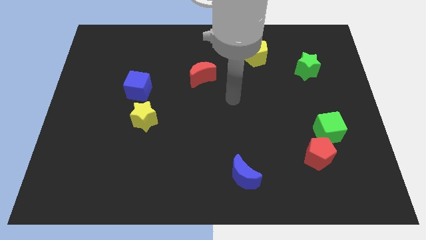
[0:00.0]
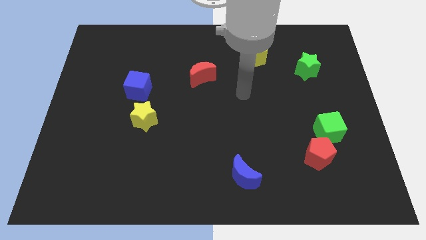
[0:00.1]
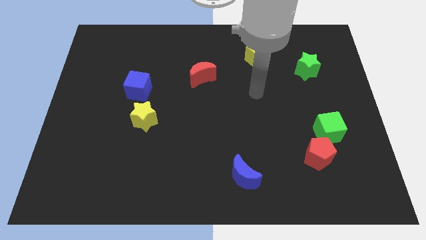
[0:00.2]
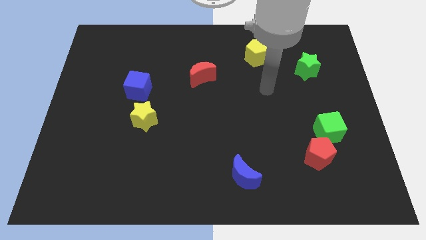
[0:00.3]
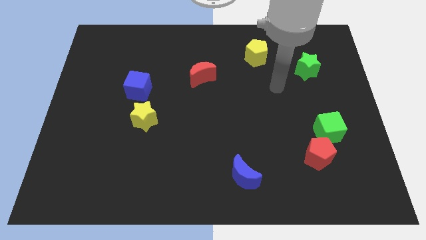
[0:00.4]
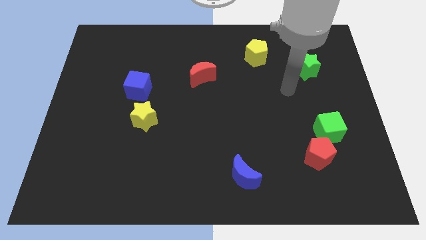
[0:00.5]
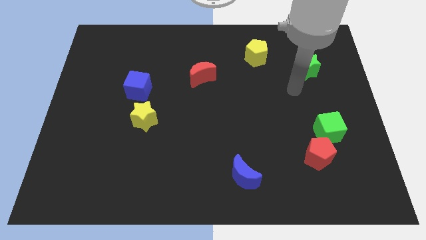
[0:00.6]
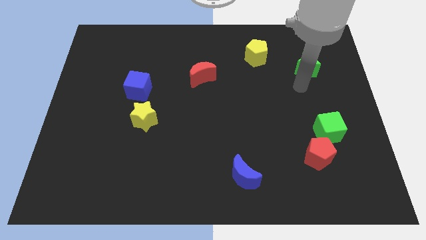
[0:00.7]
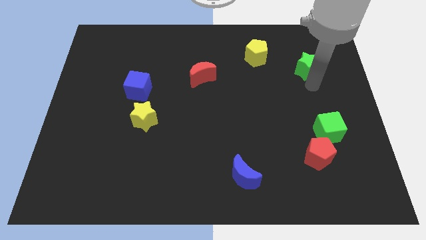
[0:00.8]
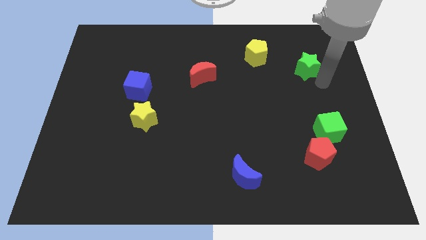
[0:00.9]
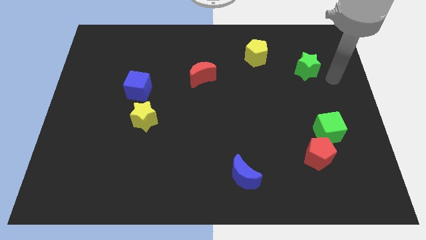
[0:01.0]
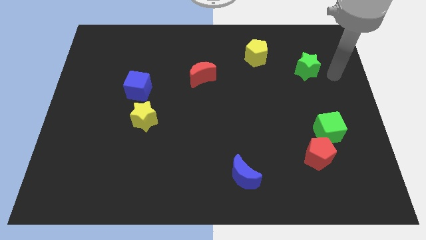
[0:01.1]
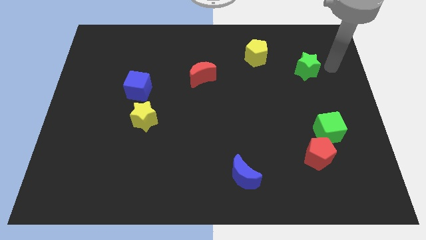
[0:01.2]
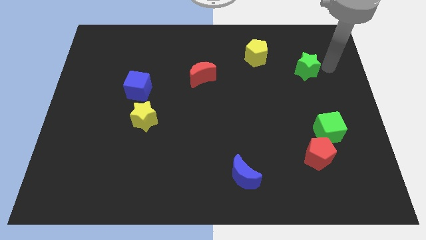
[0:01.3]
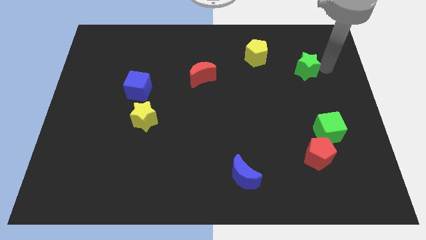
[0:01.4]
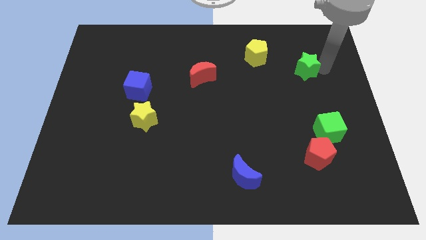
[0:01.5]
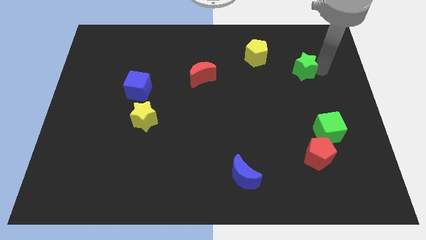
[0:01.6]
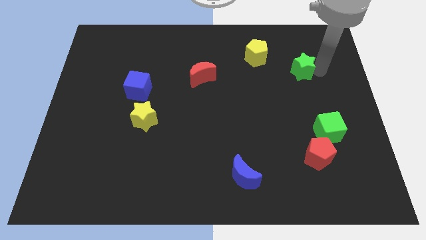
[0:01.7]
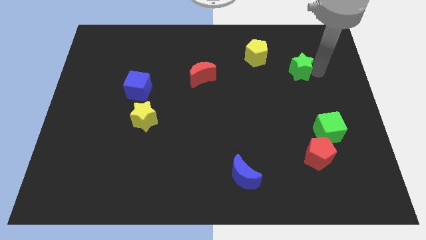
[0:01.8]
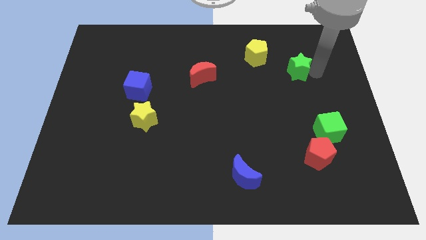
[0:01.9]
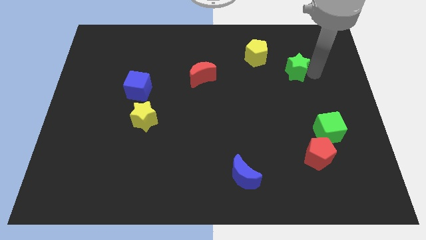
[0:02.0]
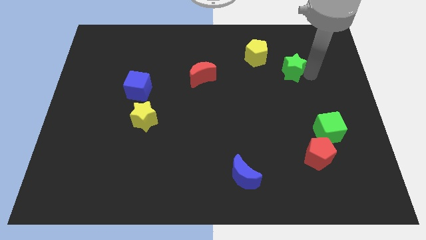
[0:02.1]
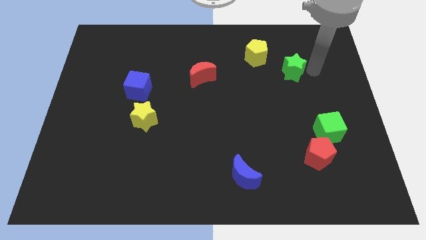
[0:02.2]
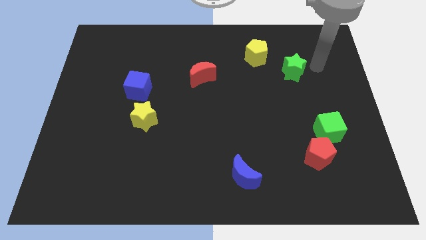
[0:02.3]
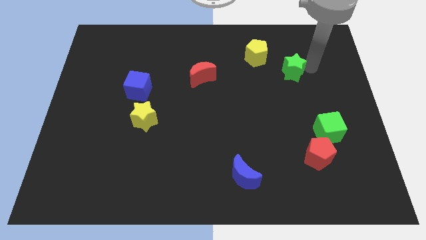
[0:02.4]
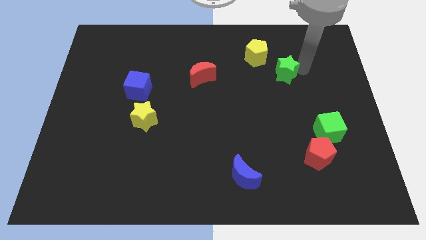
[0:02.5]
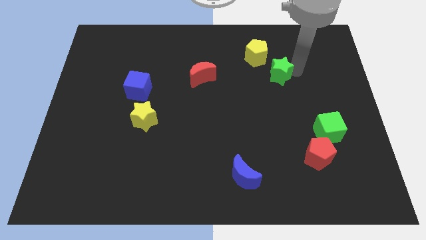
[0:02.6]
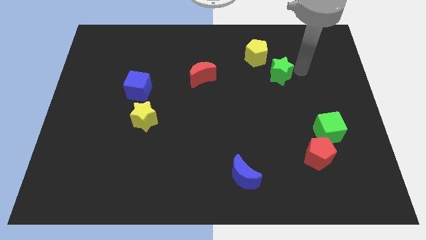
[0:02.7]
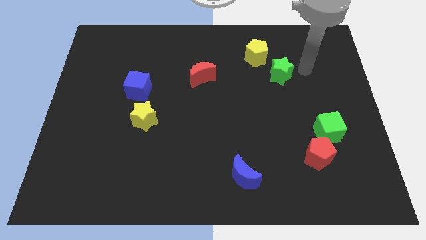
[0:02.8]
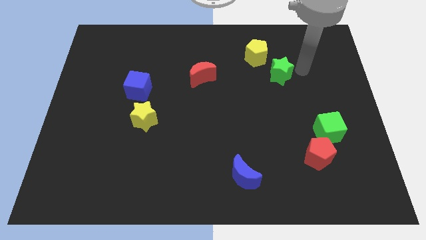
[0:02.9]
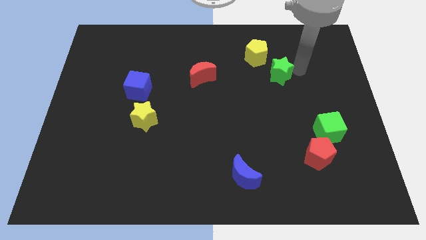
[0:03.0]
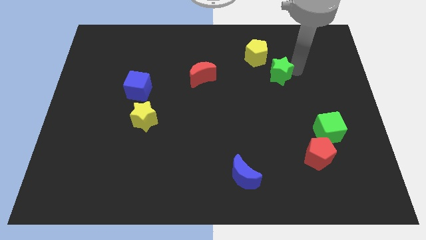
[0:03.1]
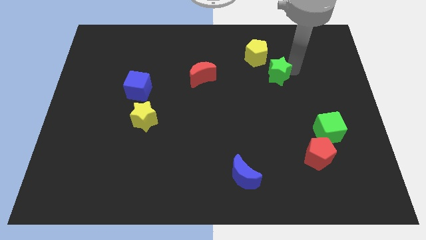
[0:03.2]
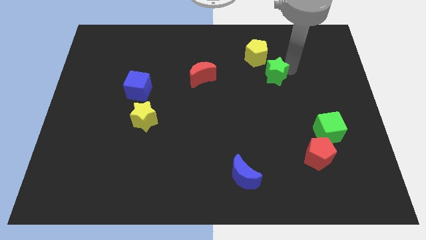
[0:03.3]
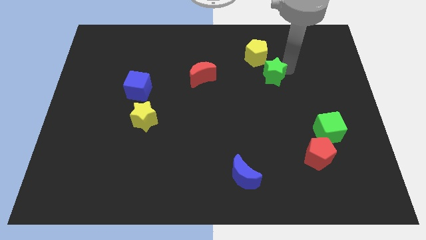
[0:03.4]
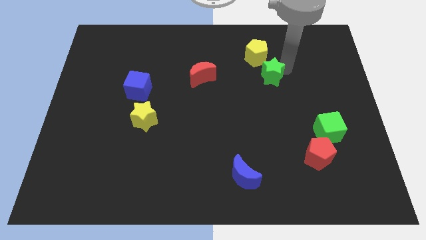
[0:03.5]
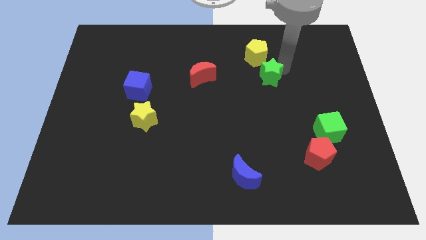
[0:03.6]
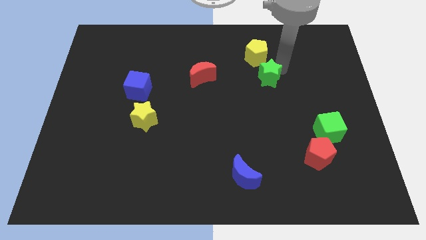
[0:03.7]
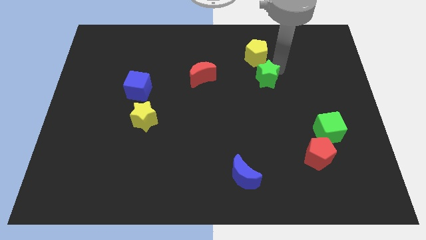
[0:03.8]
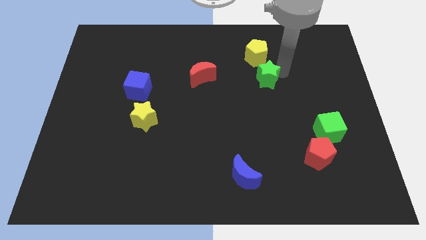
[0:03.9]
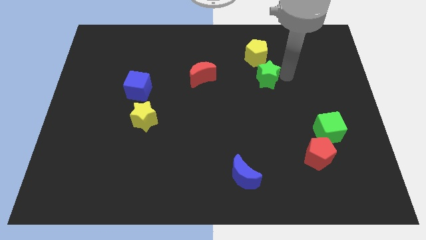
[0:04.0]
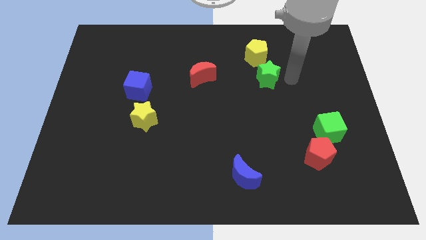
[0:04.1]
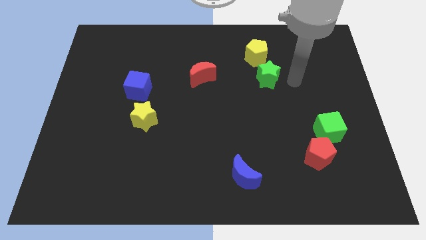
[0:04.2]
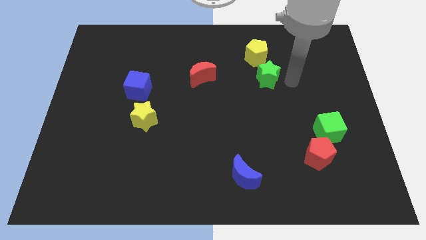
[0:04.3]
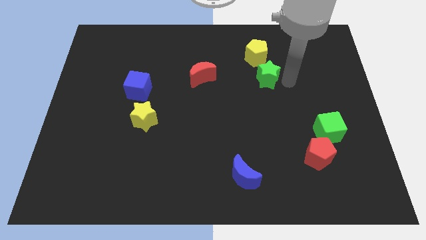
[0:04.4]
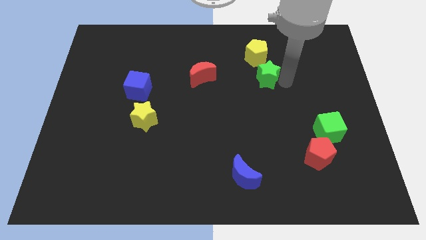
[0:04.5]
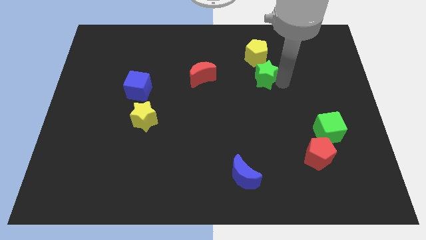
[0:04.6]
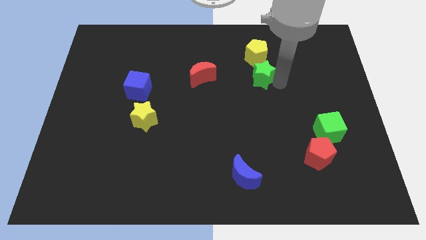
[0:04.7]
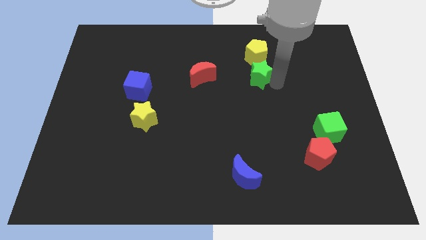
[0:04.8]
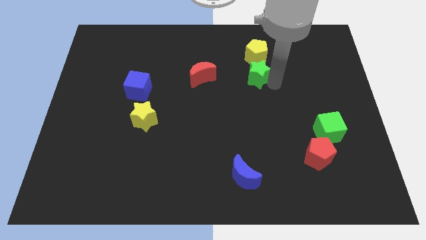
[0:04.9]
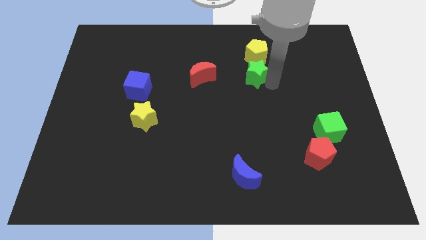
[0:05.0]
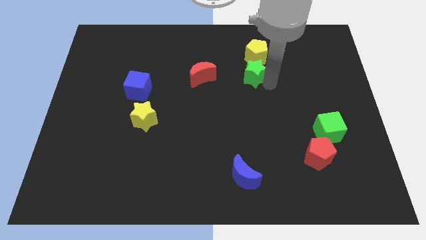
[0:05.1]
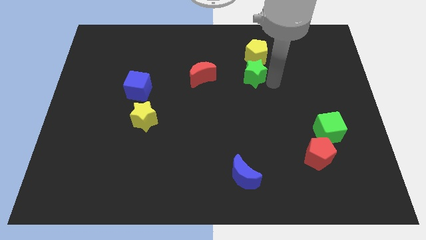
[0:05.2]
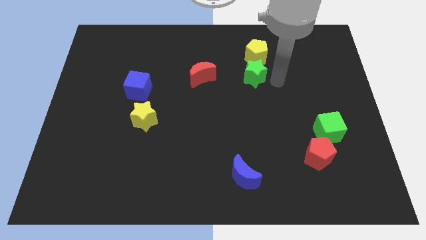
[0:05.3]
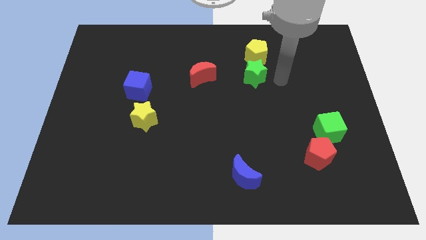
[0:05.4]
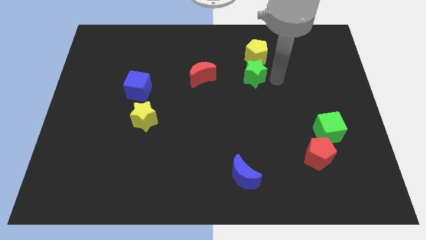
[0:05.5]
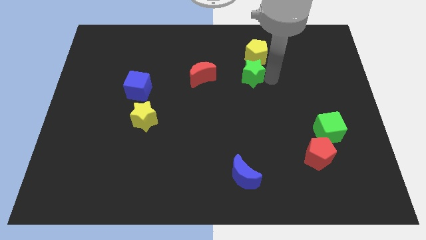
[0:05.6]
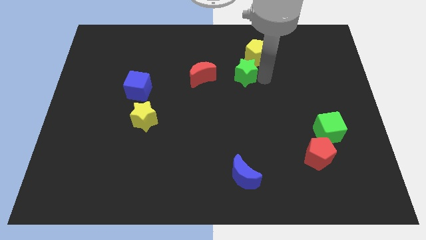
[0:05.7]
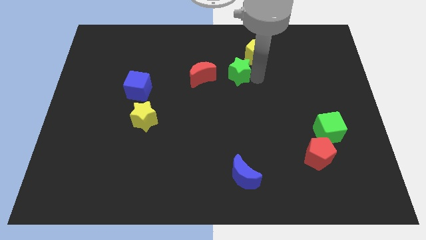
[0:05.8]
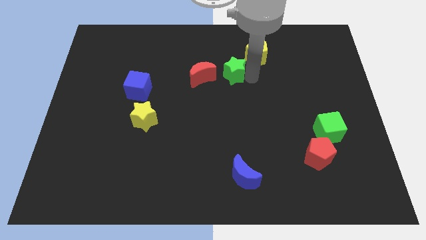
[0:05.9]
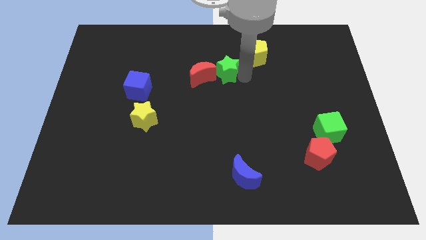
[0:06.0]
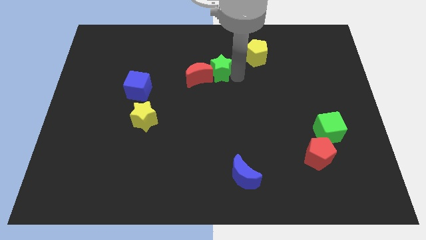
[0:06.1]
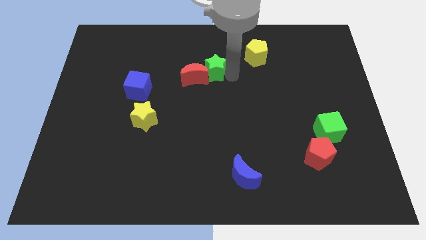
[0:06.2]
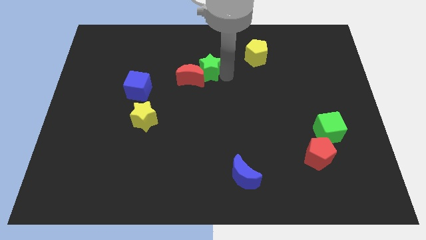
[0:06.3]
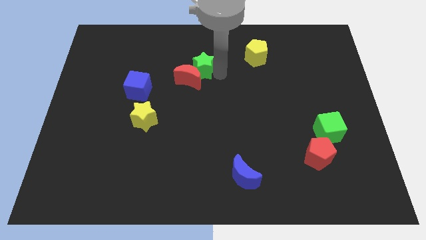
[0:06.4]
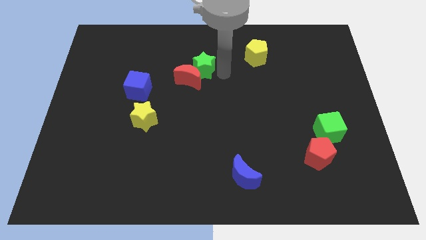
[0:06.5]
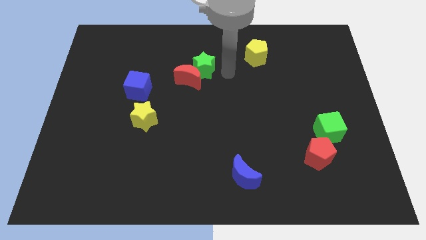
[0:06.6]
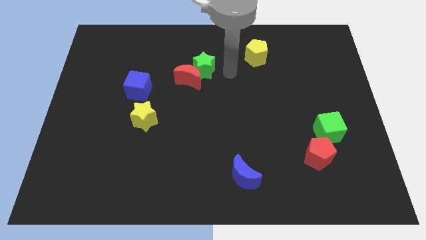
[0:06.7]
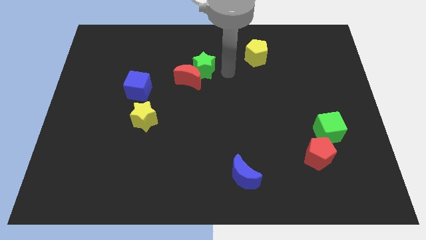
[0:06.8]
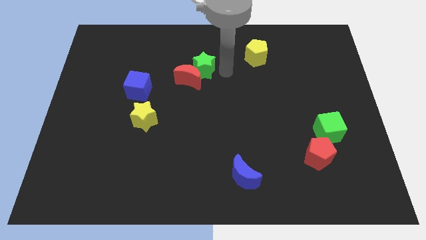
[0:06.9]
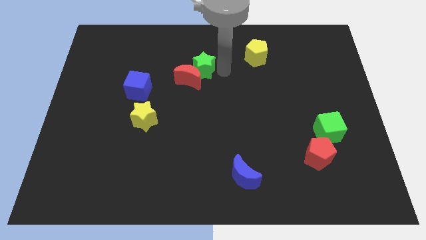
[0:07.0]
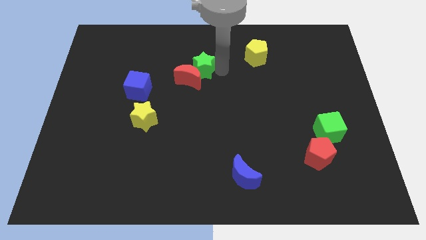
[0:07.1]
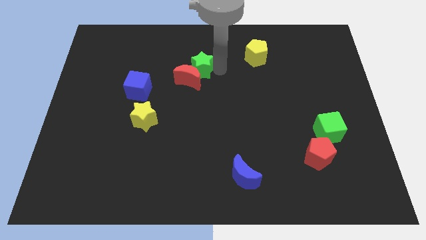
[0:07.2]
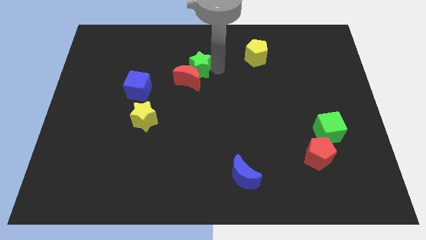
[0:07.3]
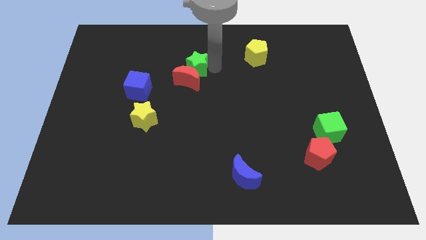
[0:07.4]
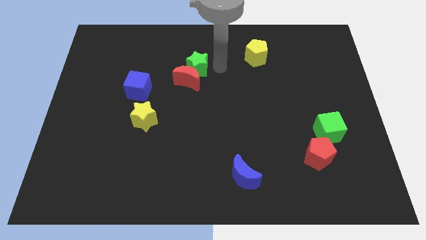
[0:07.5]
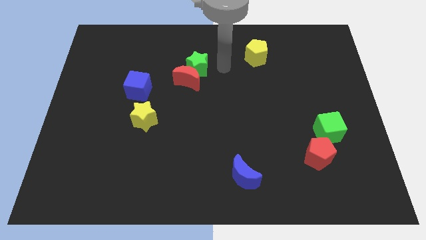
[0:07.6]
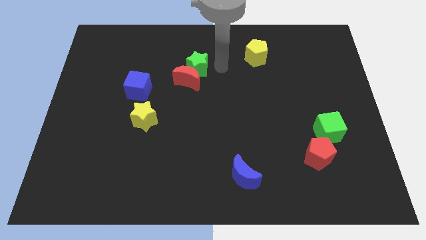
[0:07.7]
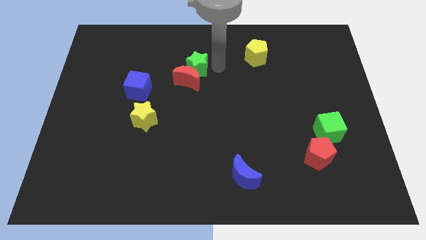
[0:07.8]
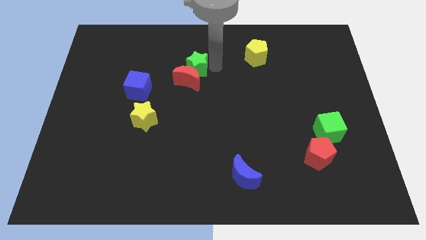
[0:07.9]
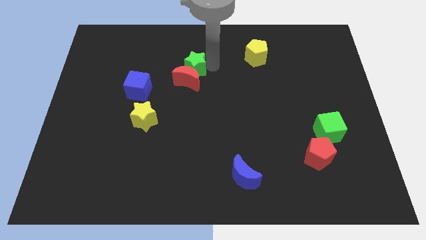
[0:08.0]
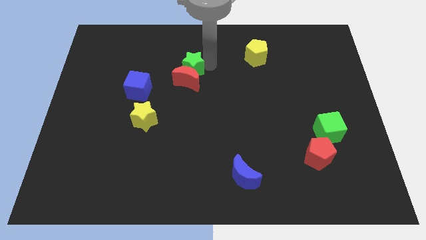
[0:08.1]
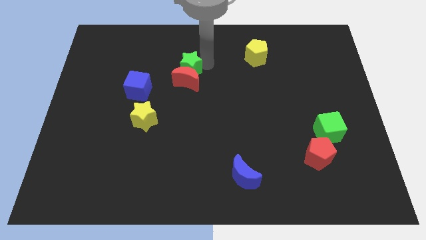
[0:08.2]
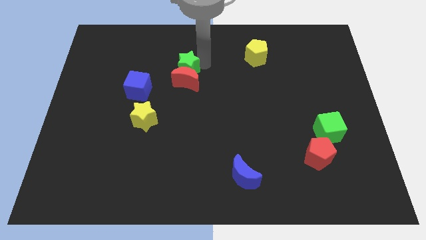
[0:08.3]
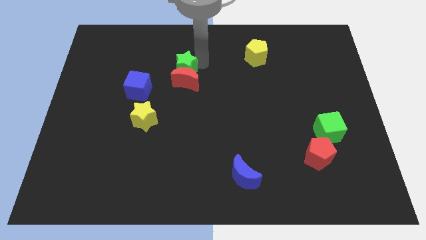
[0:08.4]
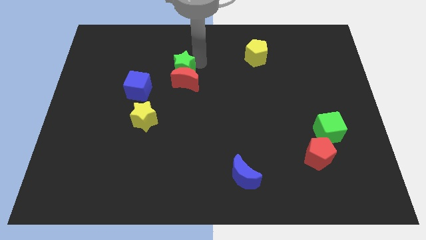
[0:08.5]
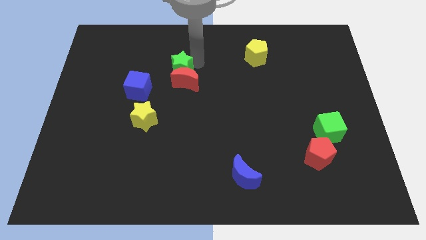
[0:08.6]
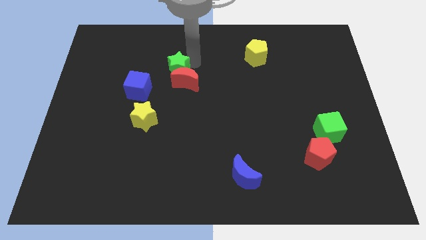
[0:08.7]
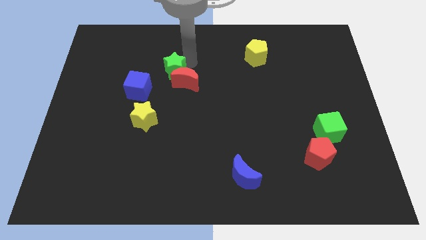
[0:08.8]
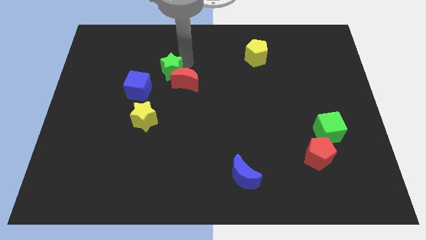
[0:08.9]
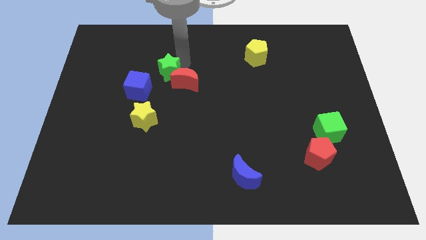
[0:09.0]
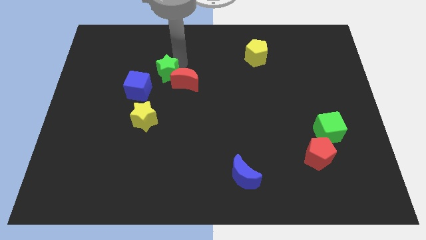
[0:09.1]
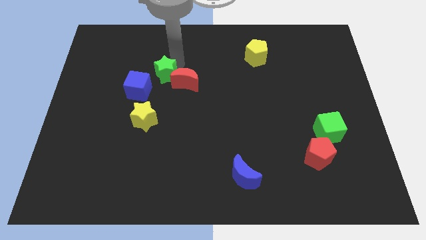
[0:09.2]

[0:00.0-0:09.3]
push the green star above the yellow star
